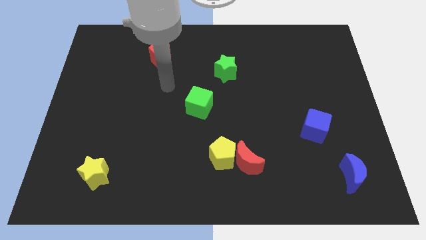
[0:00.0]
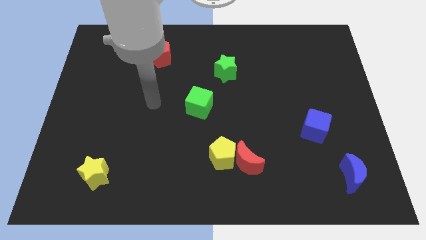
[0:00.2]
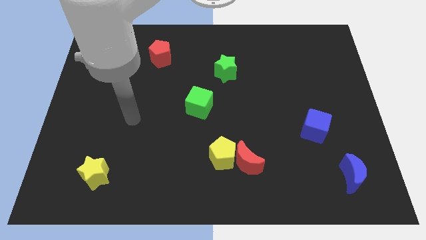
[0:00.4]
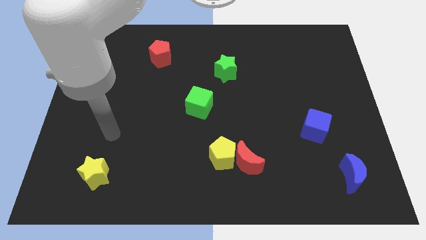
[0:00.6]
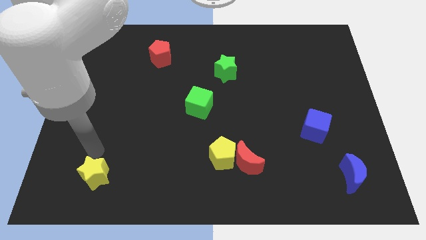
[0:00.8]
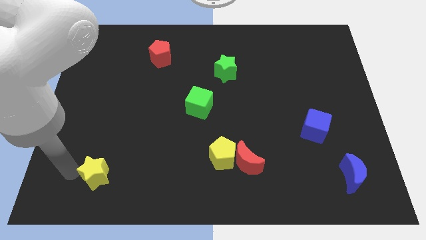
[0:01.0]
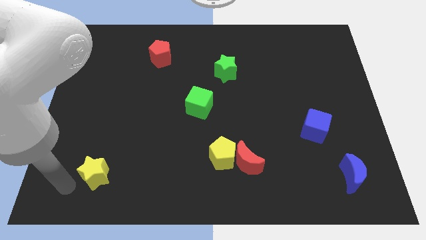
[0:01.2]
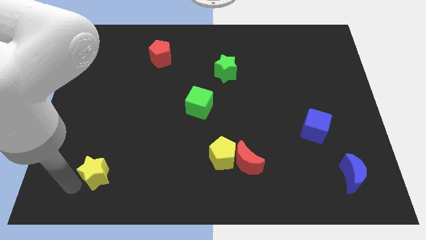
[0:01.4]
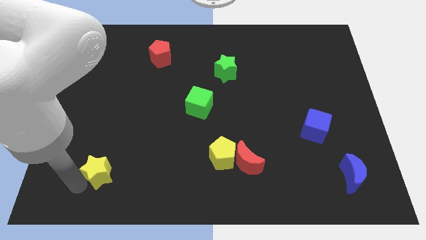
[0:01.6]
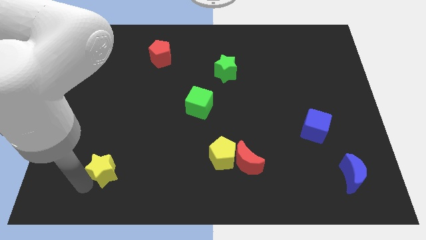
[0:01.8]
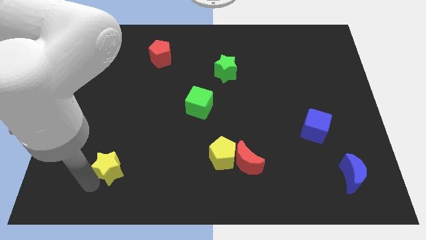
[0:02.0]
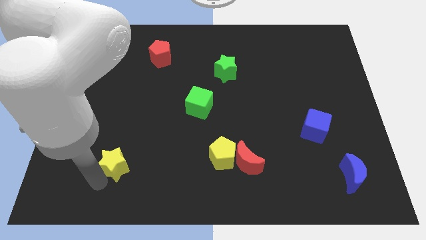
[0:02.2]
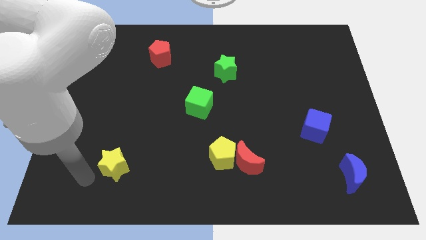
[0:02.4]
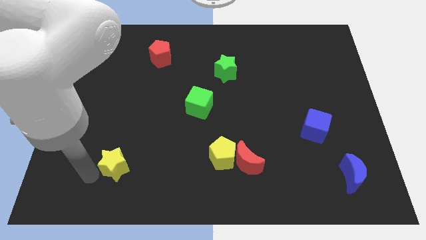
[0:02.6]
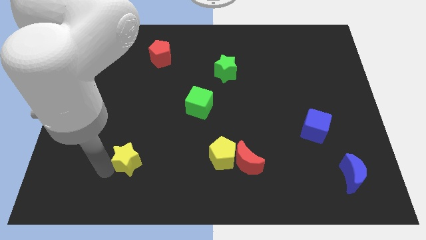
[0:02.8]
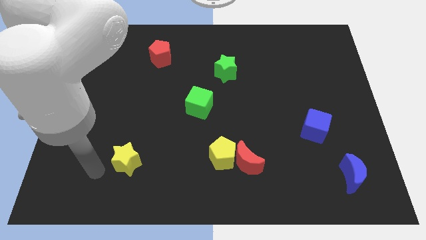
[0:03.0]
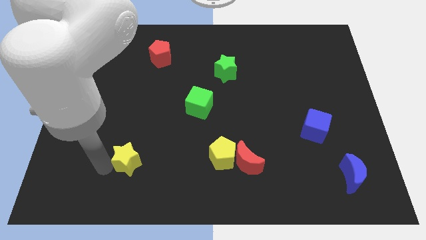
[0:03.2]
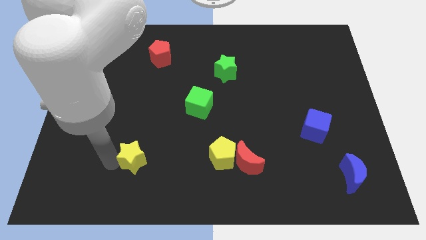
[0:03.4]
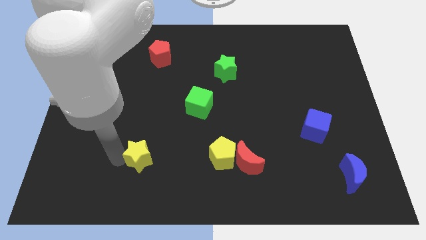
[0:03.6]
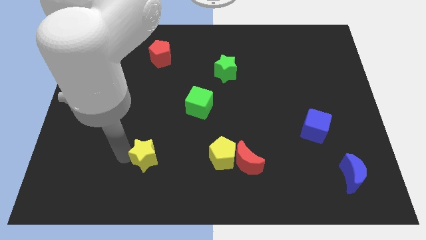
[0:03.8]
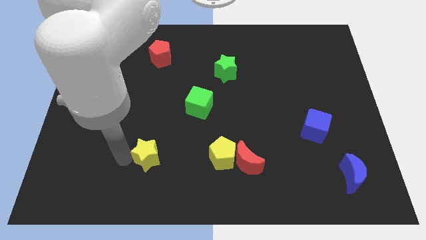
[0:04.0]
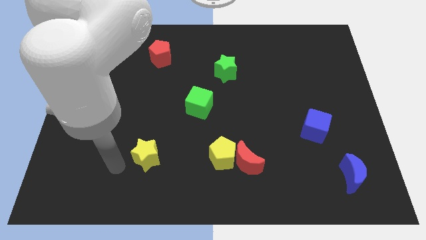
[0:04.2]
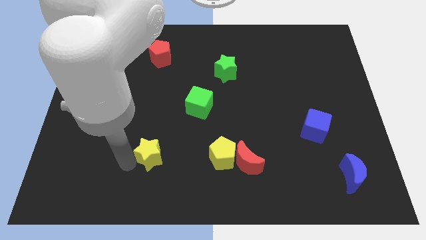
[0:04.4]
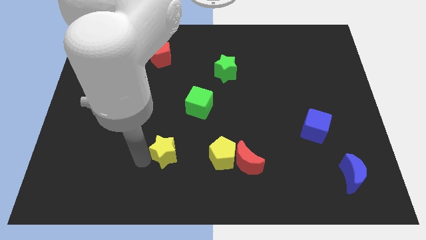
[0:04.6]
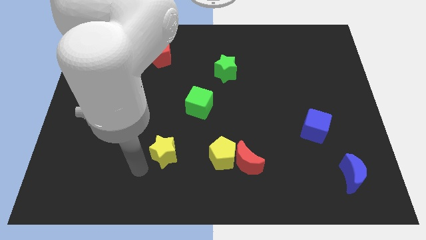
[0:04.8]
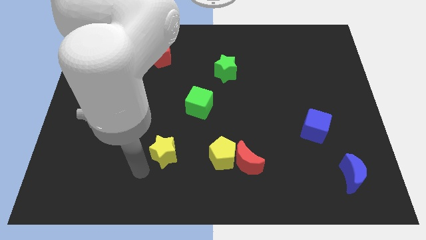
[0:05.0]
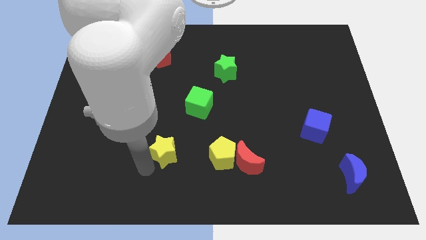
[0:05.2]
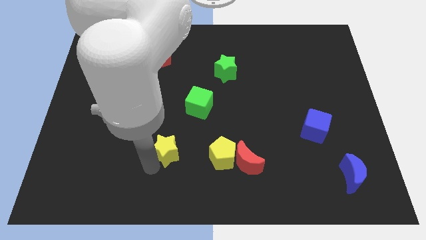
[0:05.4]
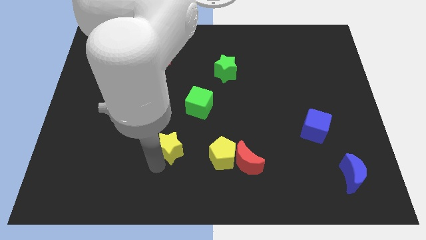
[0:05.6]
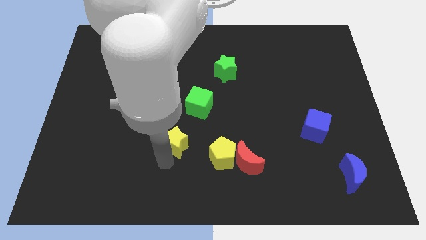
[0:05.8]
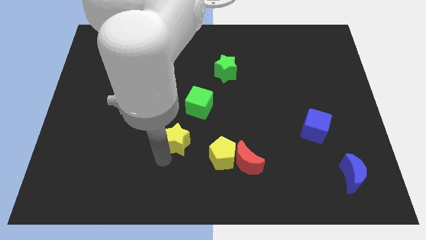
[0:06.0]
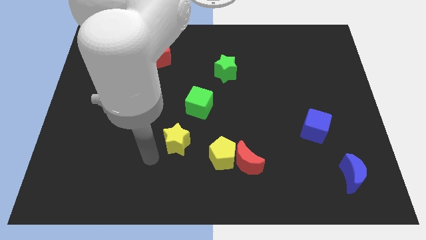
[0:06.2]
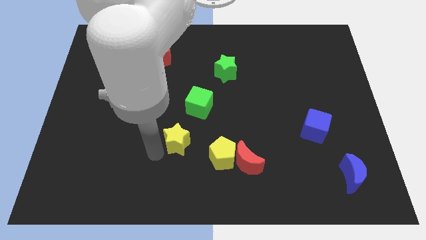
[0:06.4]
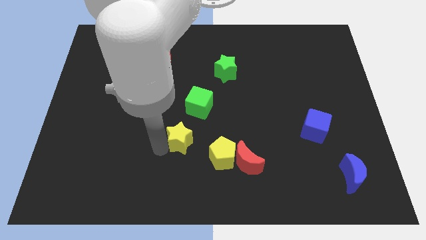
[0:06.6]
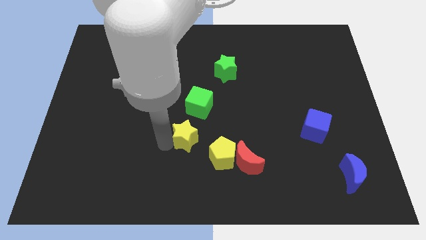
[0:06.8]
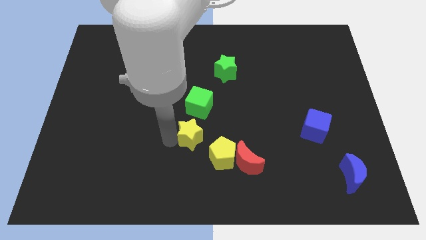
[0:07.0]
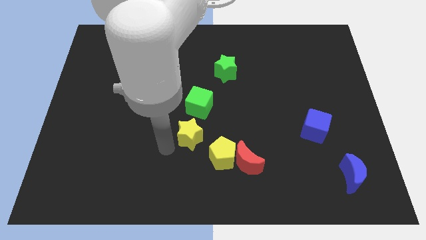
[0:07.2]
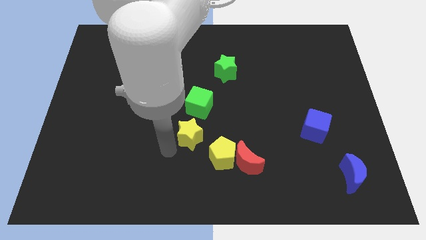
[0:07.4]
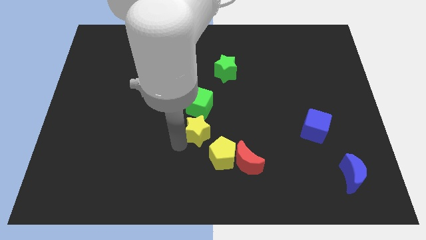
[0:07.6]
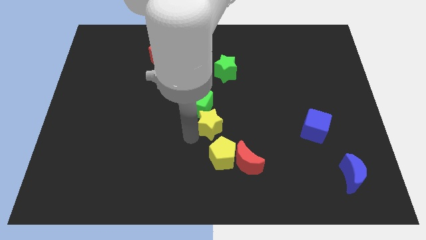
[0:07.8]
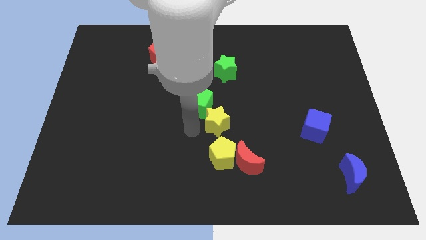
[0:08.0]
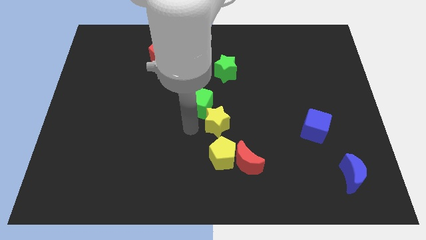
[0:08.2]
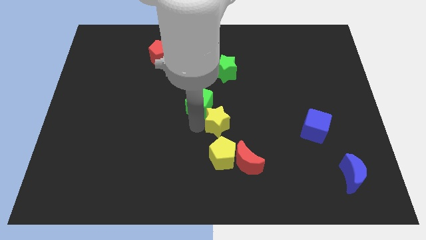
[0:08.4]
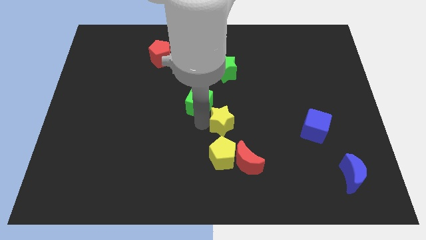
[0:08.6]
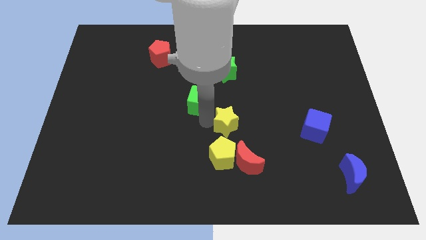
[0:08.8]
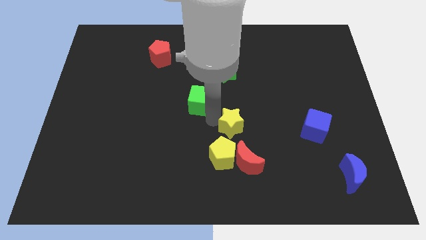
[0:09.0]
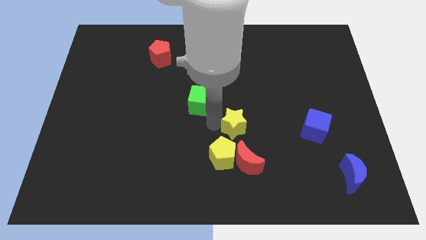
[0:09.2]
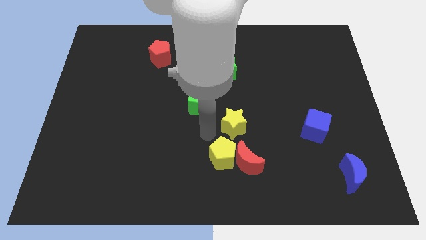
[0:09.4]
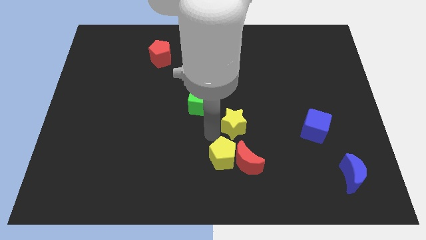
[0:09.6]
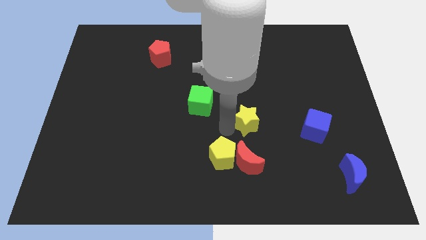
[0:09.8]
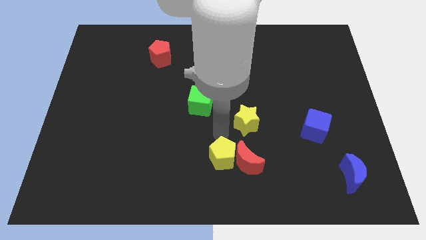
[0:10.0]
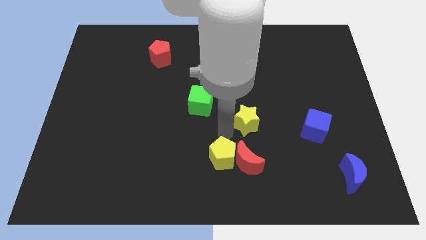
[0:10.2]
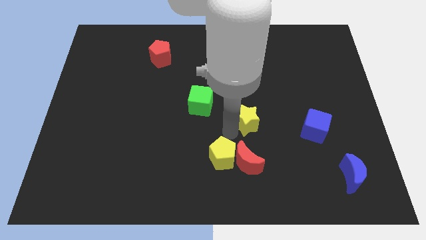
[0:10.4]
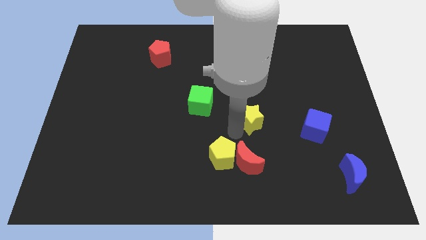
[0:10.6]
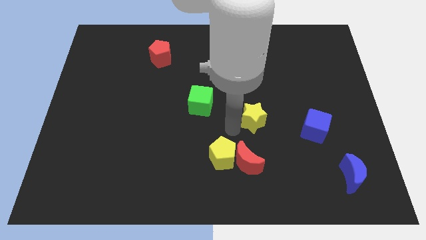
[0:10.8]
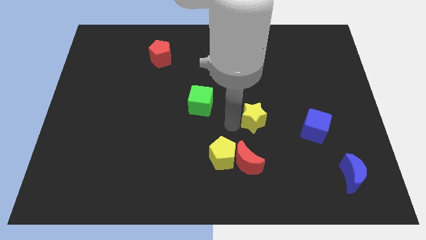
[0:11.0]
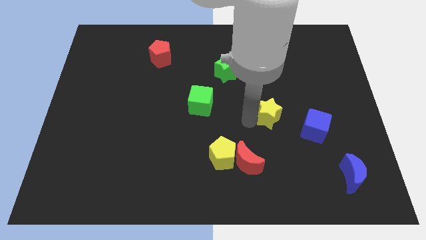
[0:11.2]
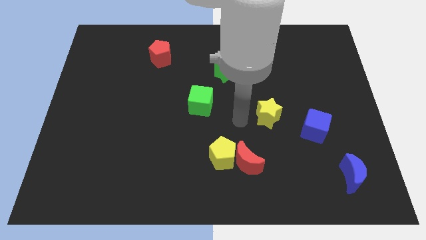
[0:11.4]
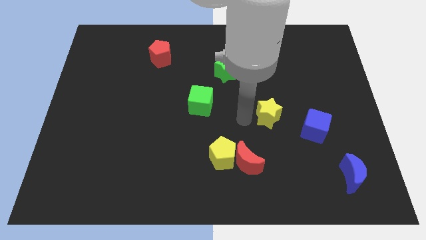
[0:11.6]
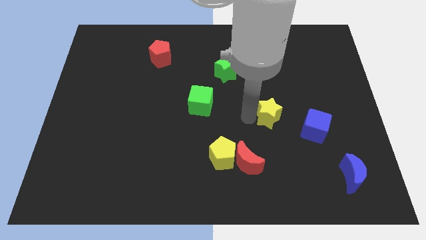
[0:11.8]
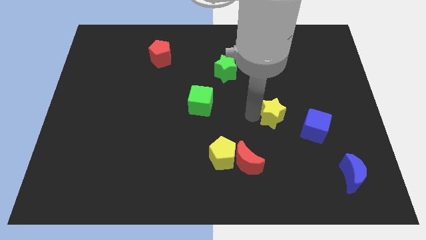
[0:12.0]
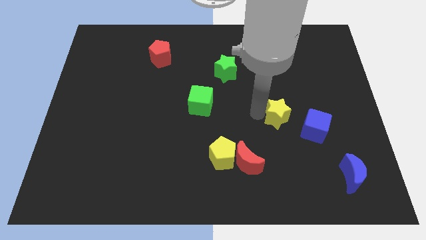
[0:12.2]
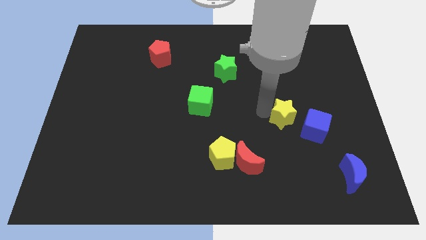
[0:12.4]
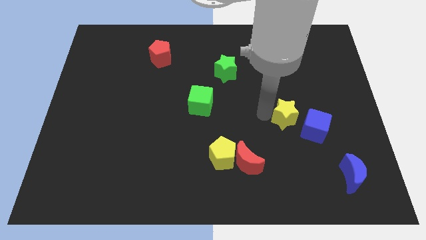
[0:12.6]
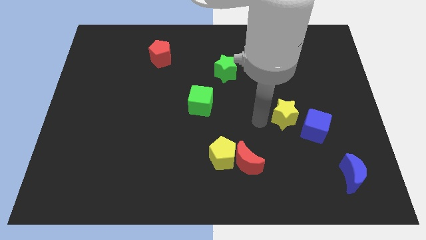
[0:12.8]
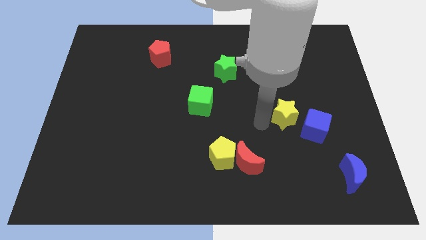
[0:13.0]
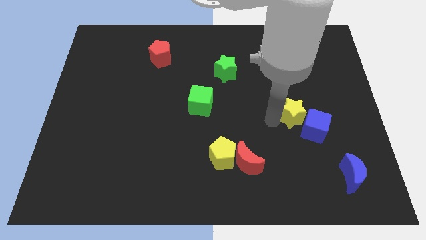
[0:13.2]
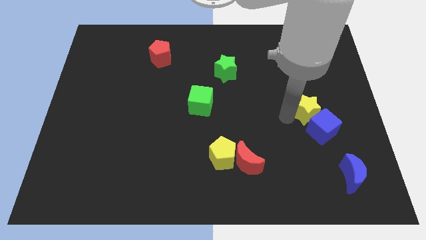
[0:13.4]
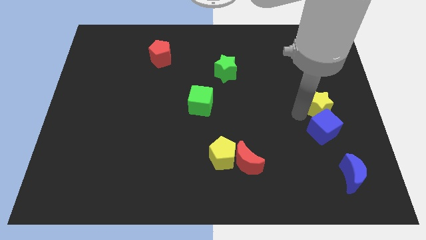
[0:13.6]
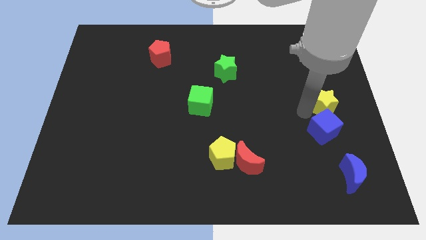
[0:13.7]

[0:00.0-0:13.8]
move the yellow star to the center right
